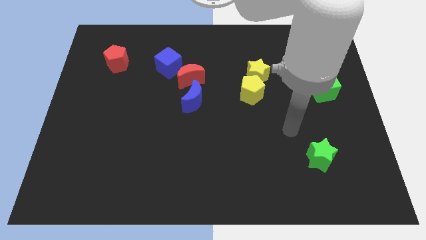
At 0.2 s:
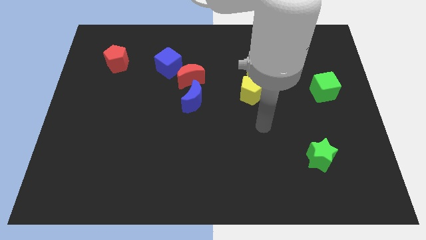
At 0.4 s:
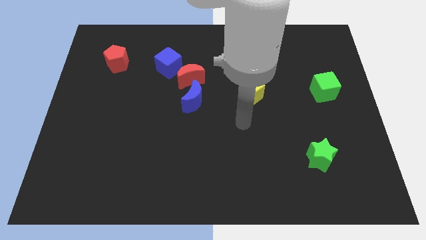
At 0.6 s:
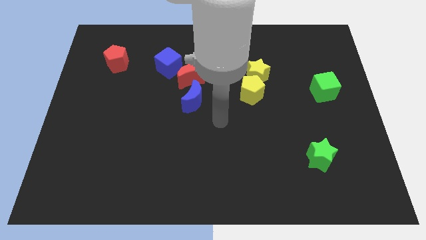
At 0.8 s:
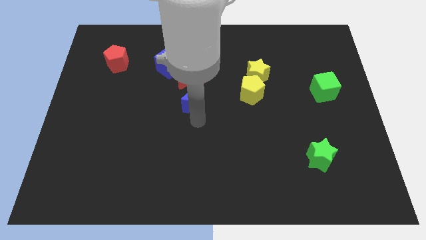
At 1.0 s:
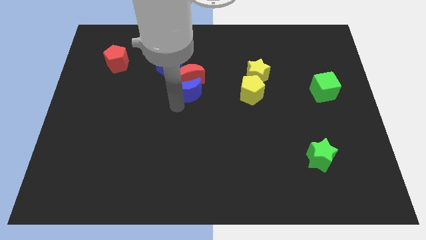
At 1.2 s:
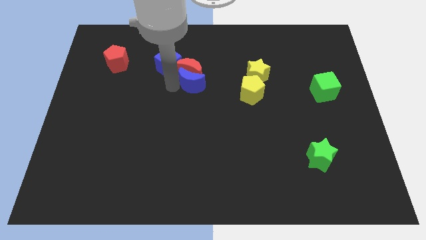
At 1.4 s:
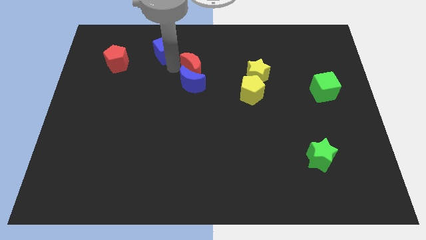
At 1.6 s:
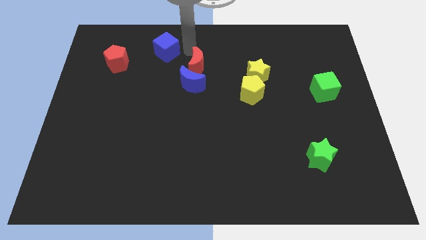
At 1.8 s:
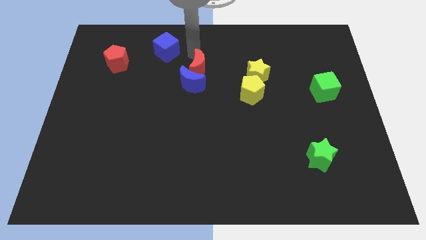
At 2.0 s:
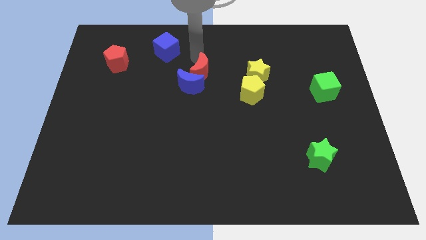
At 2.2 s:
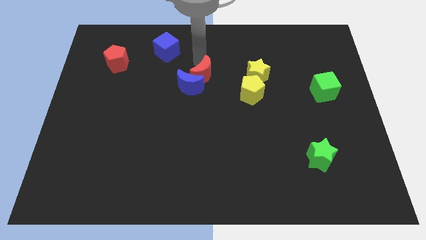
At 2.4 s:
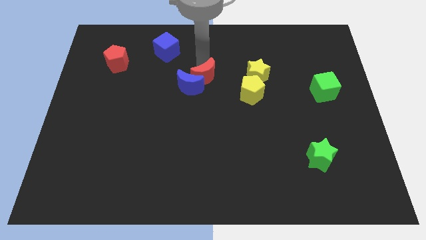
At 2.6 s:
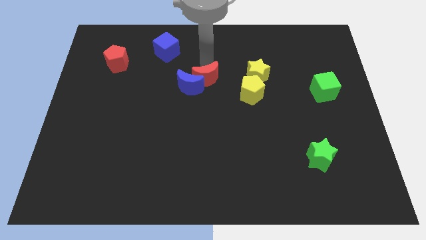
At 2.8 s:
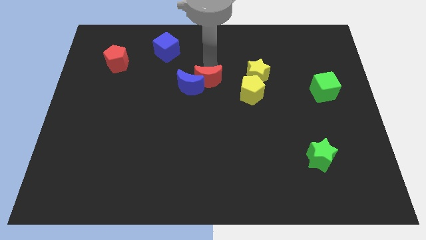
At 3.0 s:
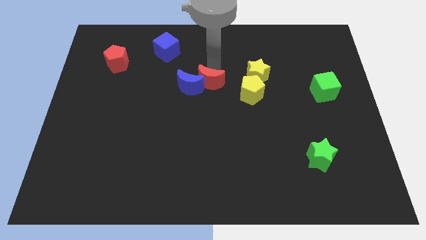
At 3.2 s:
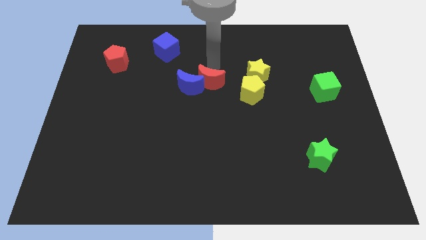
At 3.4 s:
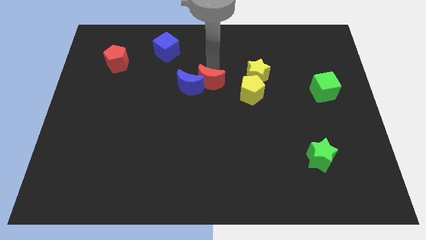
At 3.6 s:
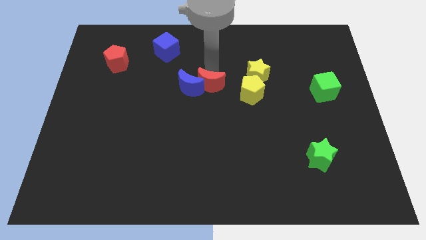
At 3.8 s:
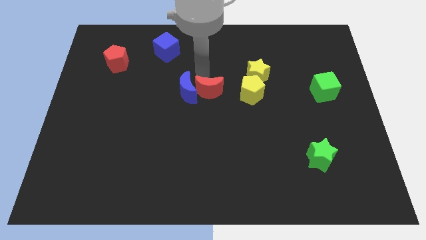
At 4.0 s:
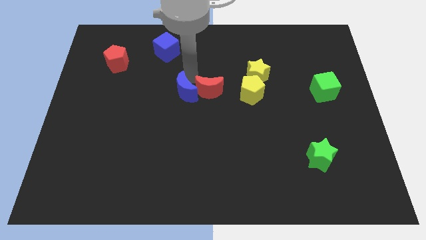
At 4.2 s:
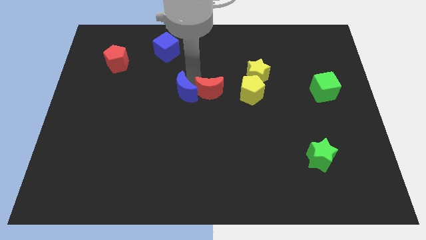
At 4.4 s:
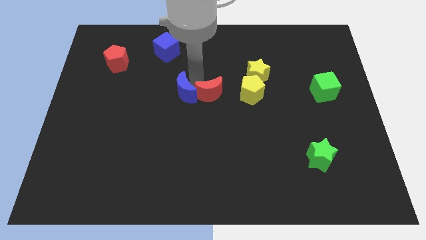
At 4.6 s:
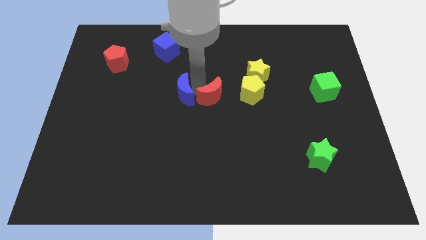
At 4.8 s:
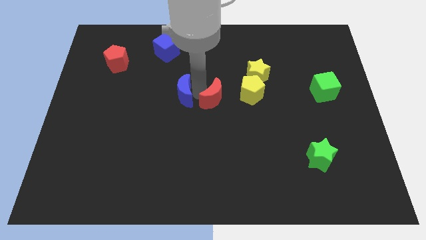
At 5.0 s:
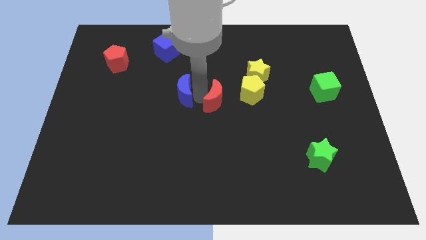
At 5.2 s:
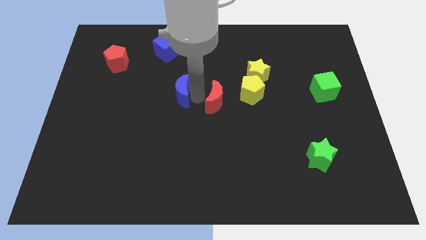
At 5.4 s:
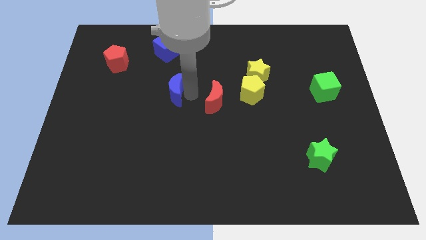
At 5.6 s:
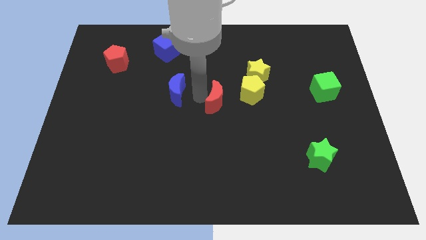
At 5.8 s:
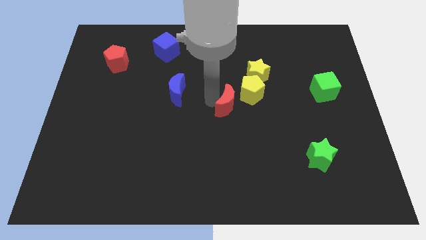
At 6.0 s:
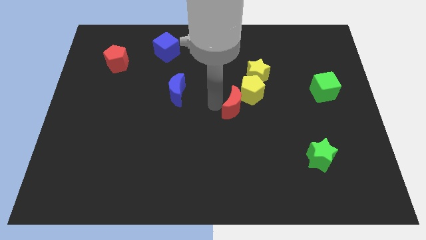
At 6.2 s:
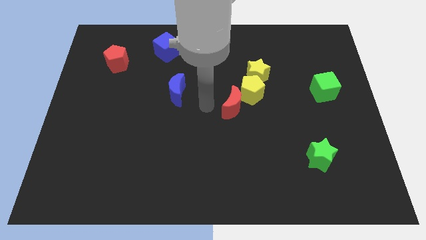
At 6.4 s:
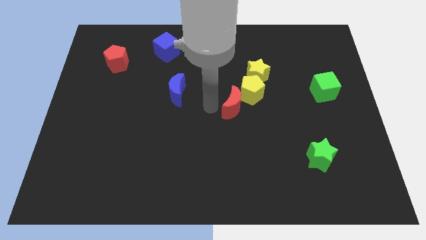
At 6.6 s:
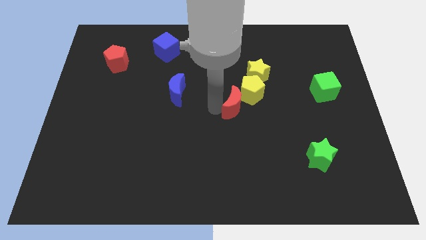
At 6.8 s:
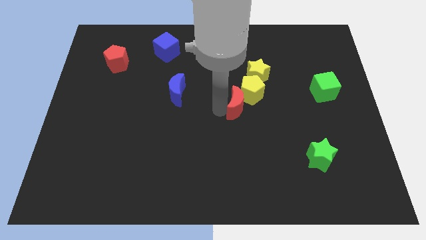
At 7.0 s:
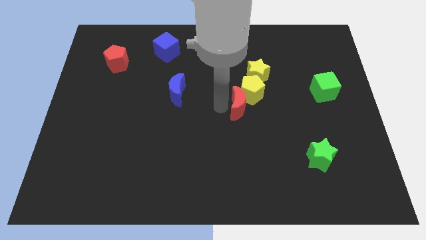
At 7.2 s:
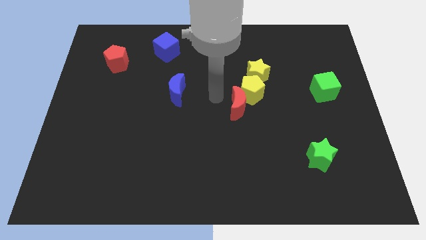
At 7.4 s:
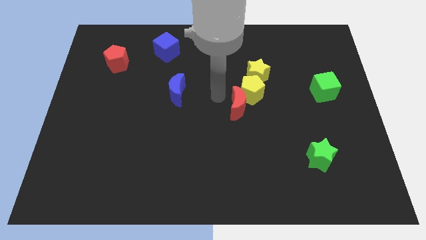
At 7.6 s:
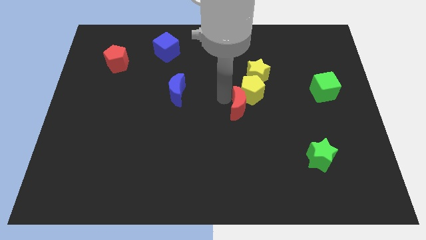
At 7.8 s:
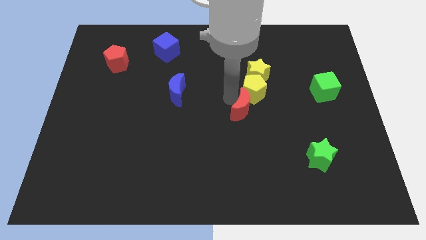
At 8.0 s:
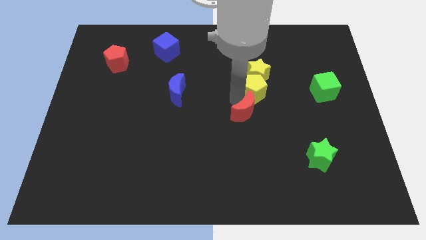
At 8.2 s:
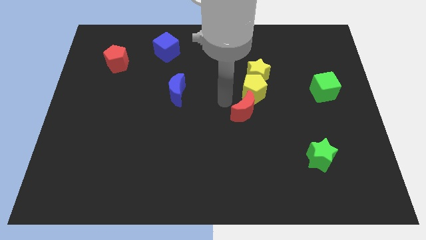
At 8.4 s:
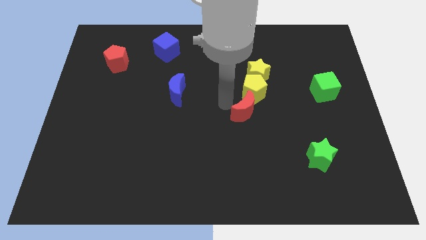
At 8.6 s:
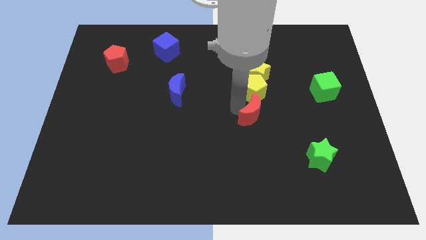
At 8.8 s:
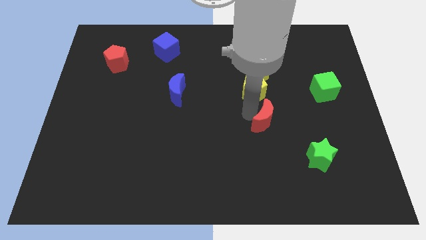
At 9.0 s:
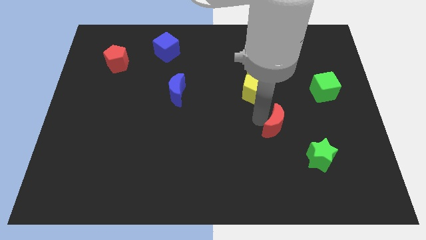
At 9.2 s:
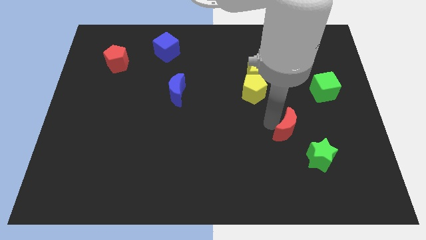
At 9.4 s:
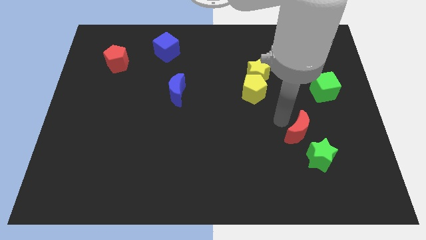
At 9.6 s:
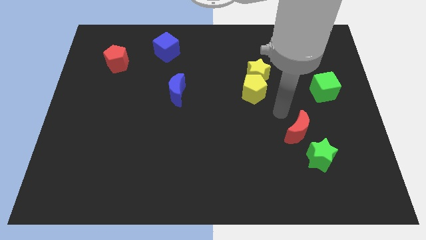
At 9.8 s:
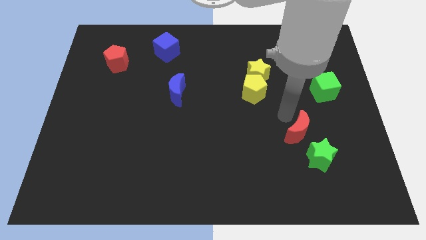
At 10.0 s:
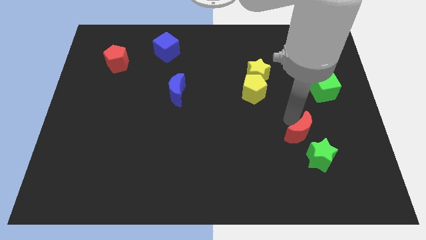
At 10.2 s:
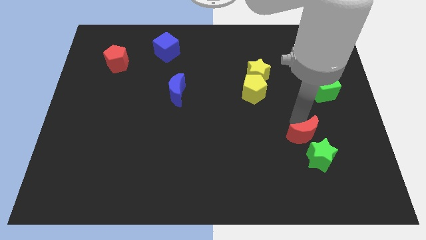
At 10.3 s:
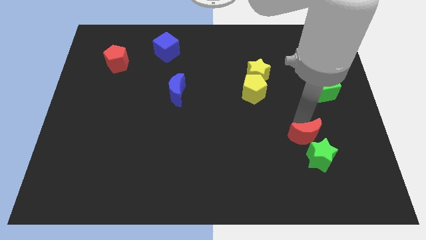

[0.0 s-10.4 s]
put the red moon close to the green star

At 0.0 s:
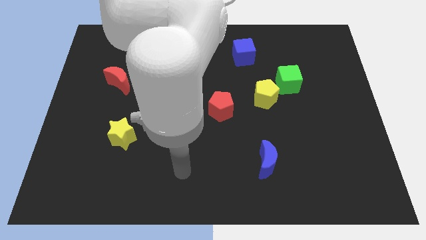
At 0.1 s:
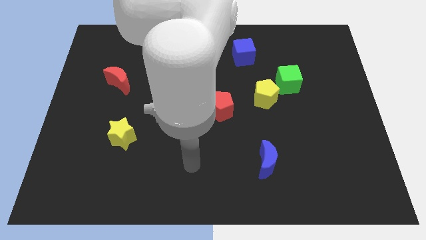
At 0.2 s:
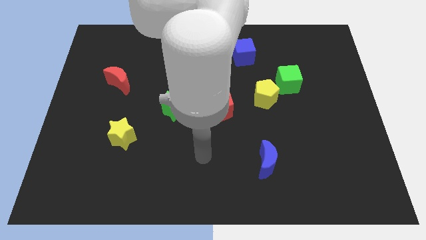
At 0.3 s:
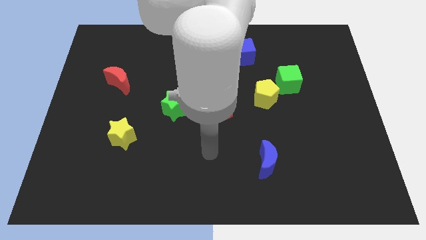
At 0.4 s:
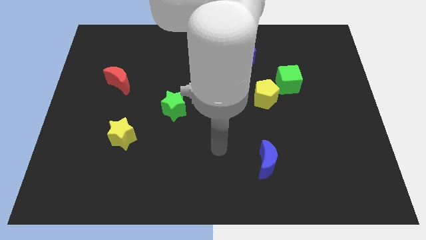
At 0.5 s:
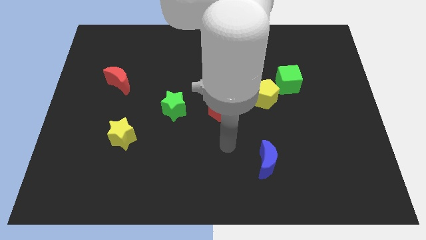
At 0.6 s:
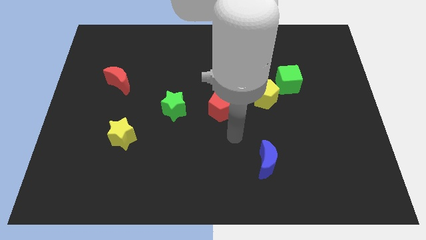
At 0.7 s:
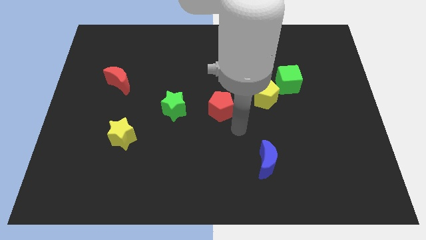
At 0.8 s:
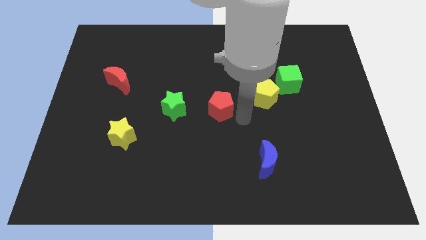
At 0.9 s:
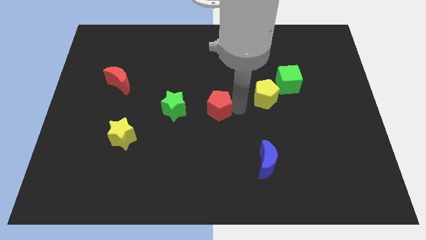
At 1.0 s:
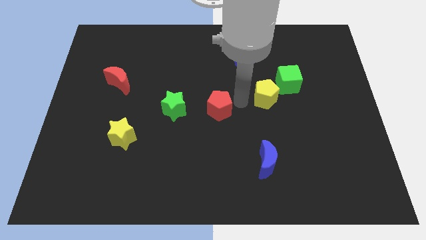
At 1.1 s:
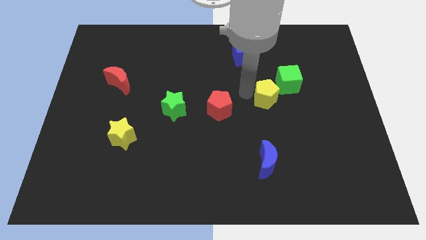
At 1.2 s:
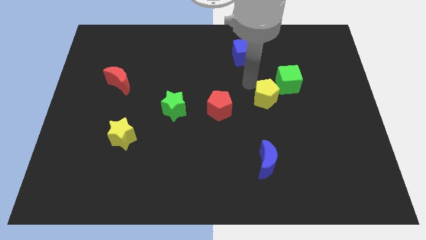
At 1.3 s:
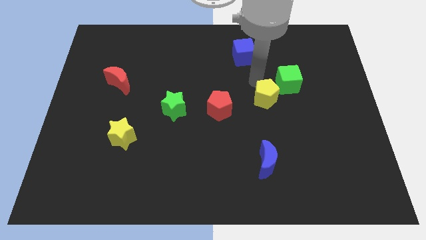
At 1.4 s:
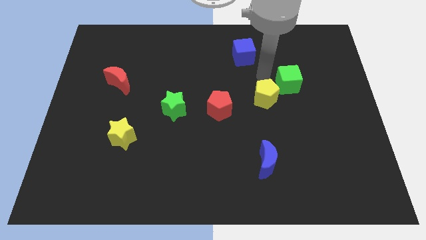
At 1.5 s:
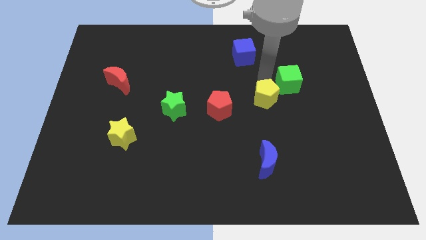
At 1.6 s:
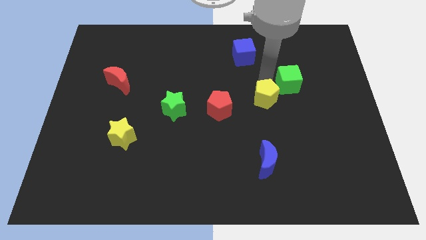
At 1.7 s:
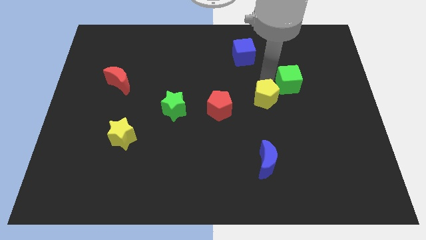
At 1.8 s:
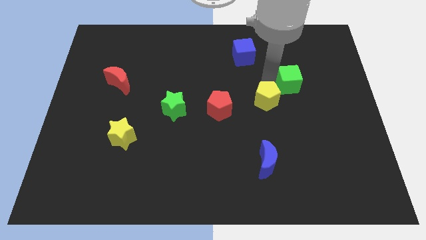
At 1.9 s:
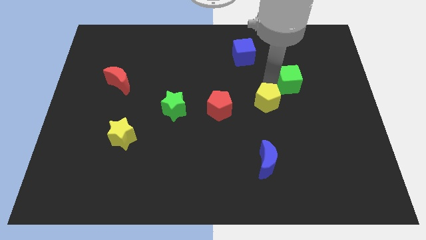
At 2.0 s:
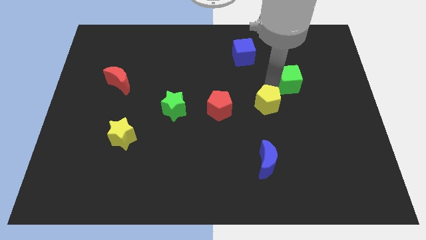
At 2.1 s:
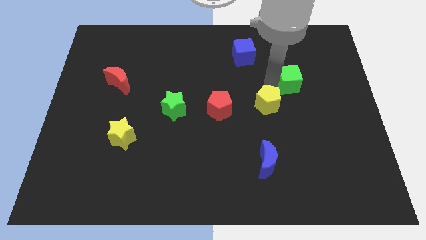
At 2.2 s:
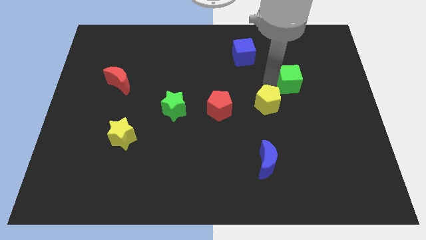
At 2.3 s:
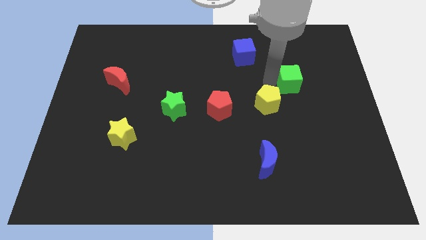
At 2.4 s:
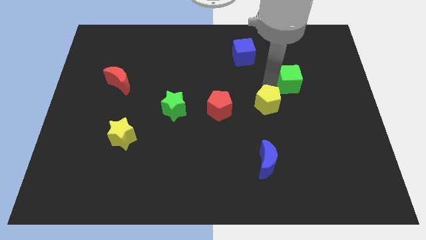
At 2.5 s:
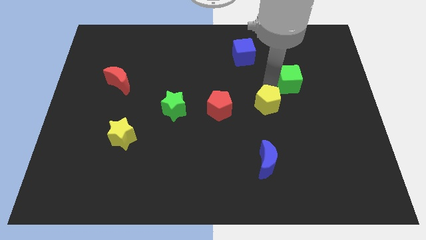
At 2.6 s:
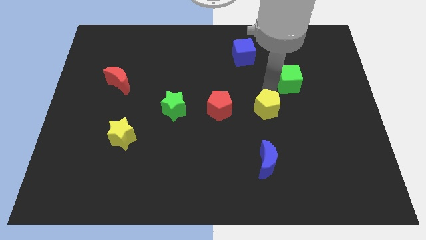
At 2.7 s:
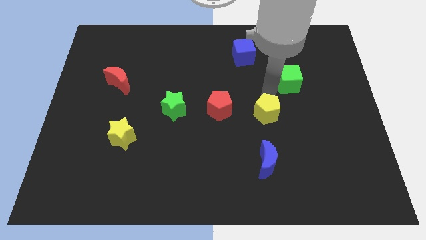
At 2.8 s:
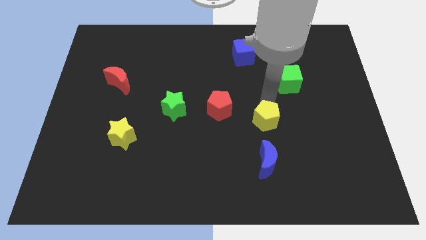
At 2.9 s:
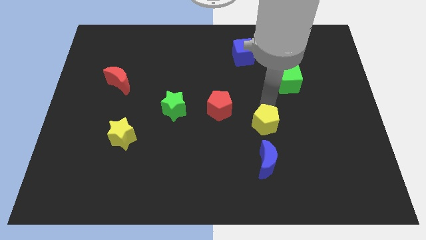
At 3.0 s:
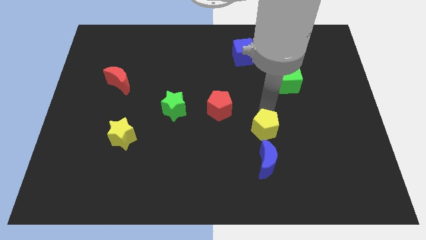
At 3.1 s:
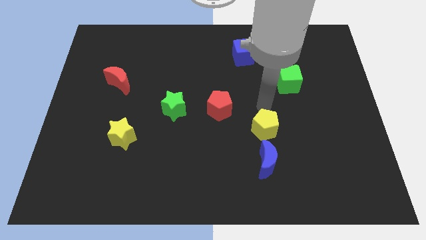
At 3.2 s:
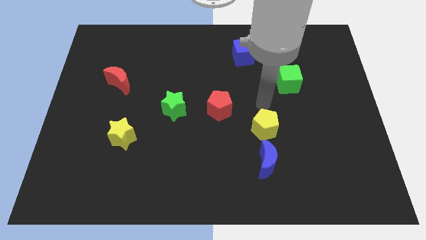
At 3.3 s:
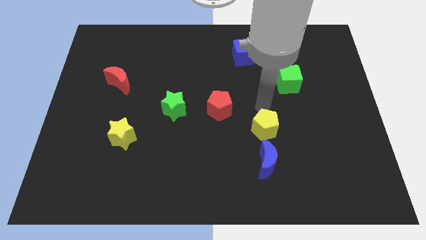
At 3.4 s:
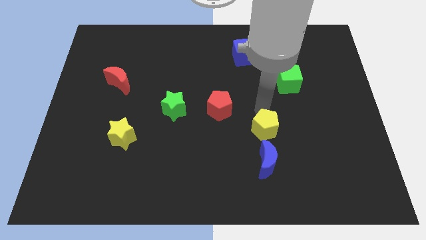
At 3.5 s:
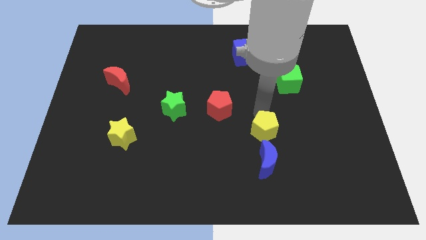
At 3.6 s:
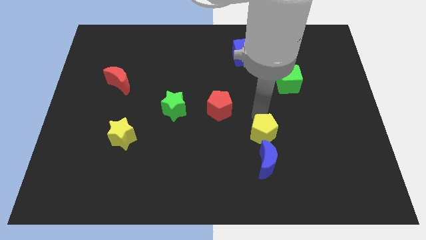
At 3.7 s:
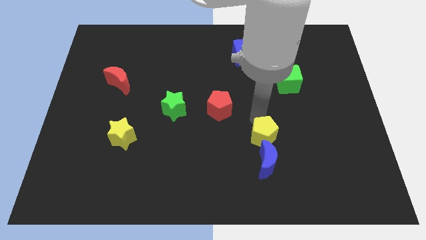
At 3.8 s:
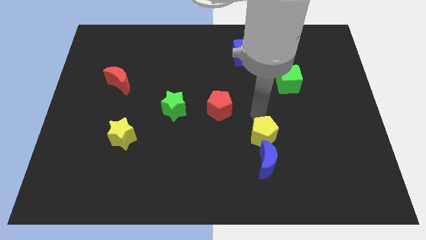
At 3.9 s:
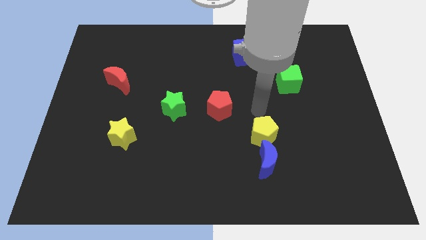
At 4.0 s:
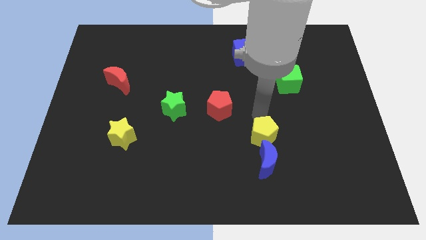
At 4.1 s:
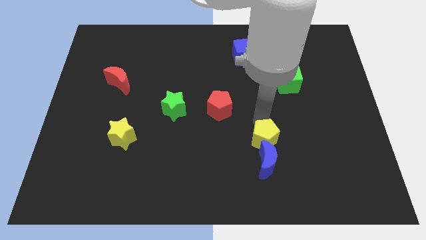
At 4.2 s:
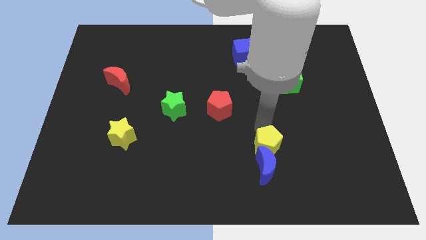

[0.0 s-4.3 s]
push the yellow pentagon close to the blue moon
